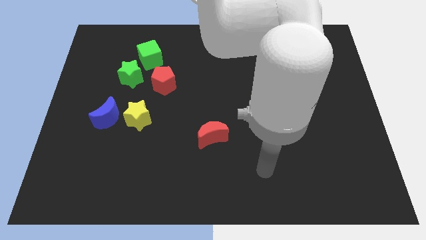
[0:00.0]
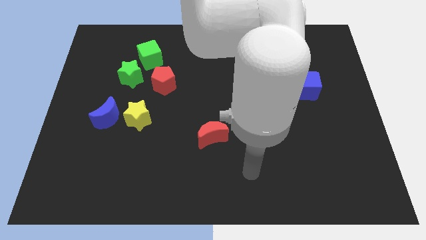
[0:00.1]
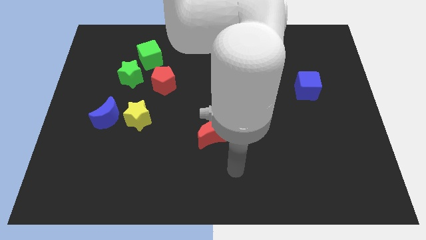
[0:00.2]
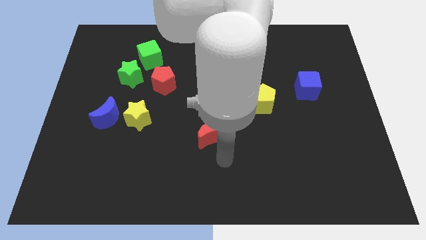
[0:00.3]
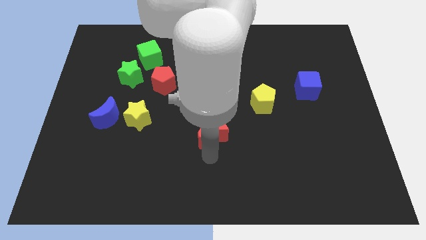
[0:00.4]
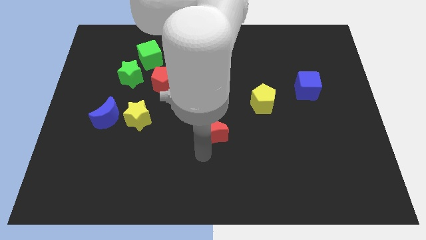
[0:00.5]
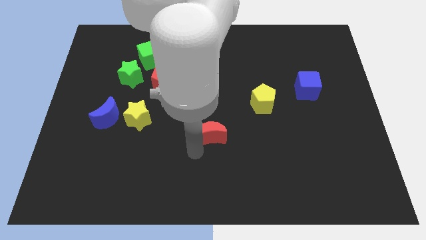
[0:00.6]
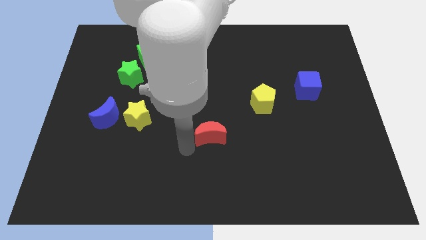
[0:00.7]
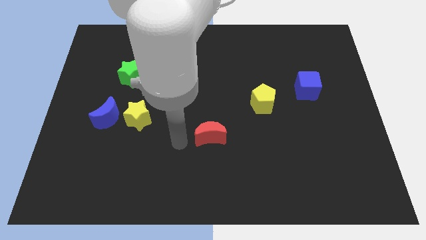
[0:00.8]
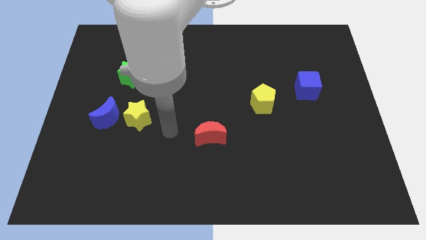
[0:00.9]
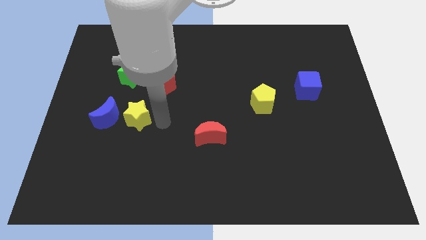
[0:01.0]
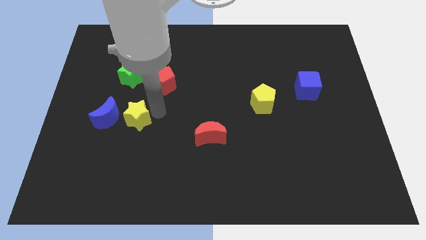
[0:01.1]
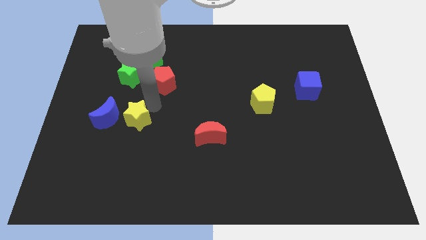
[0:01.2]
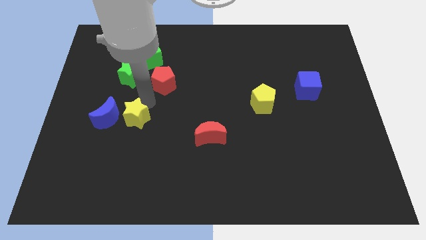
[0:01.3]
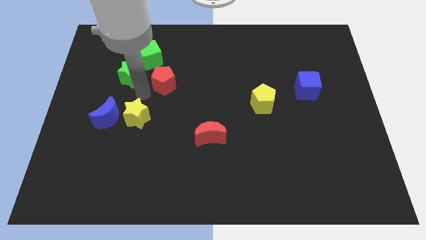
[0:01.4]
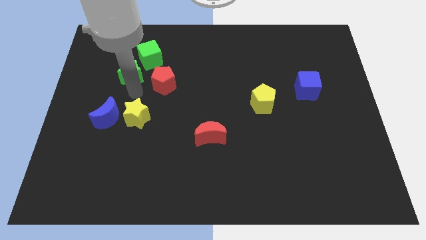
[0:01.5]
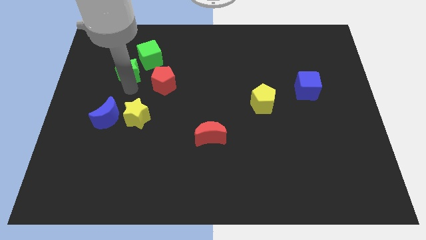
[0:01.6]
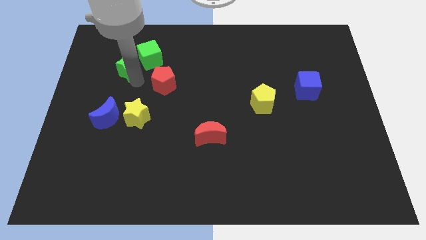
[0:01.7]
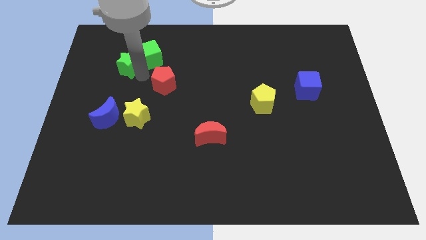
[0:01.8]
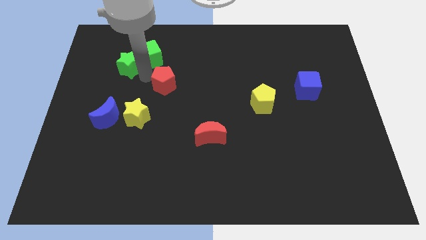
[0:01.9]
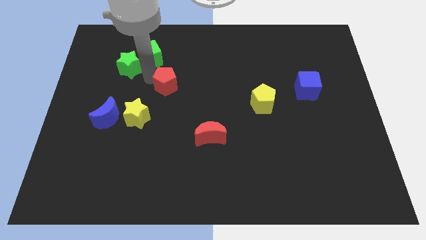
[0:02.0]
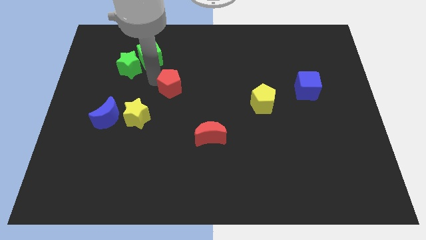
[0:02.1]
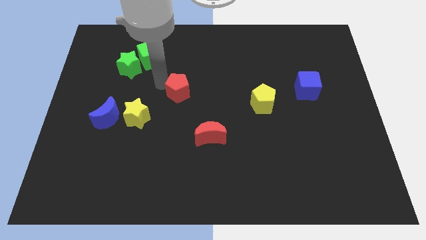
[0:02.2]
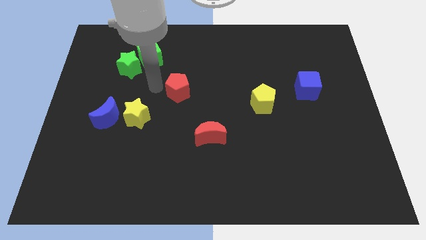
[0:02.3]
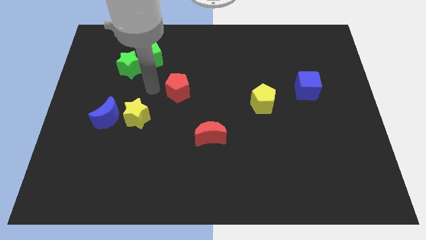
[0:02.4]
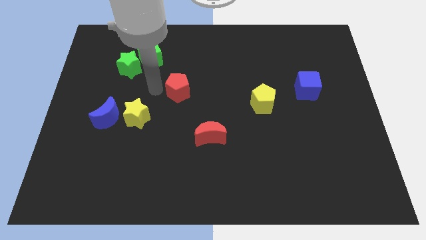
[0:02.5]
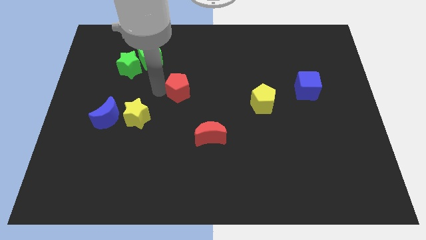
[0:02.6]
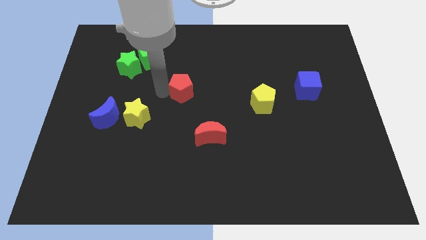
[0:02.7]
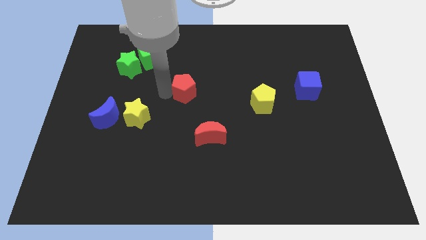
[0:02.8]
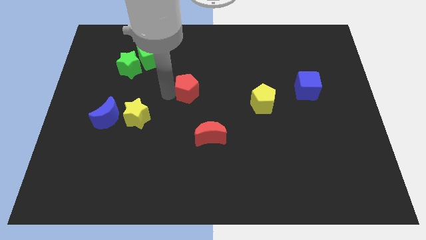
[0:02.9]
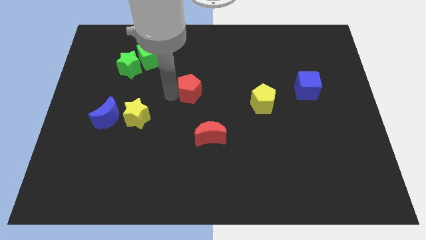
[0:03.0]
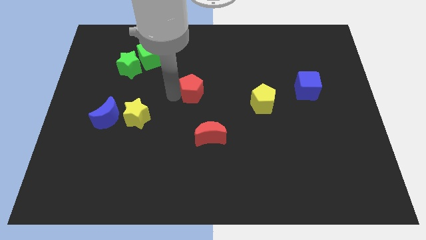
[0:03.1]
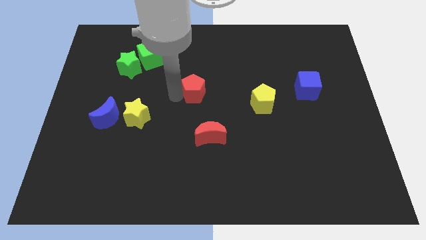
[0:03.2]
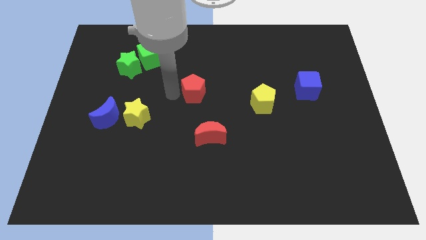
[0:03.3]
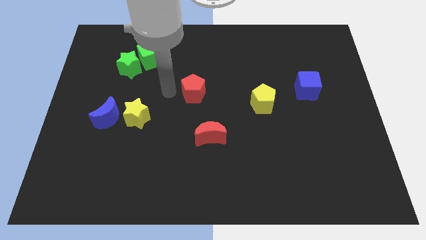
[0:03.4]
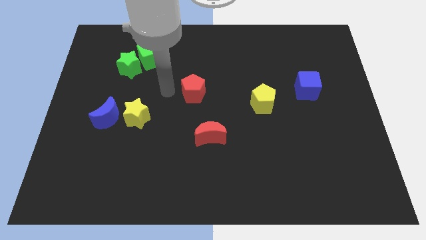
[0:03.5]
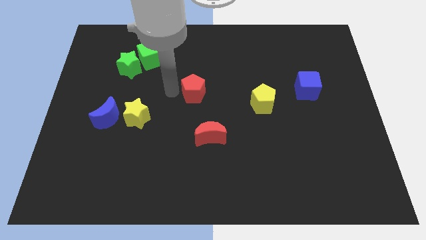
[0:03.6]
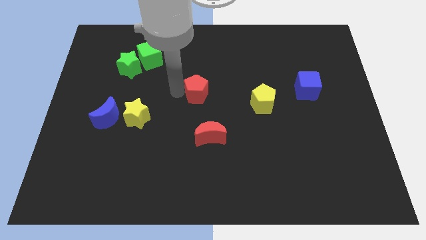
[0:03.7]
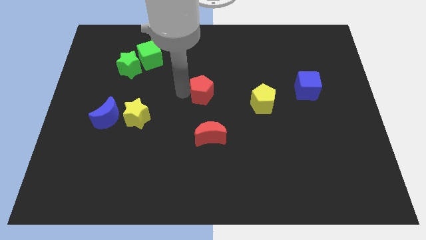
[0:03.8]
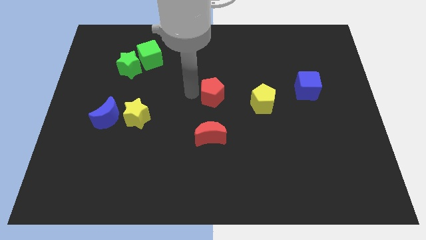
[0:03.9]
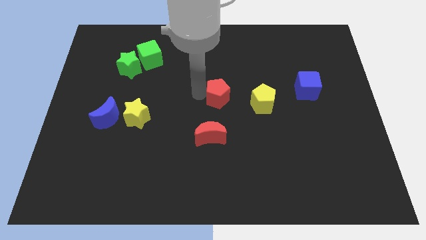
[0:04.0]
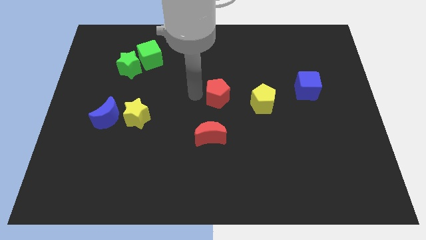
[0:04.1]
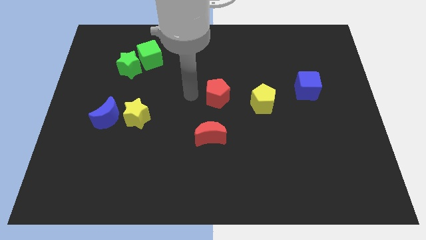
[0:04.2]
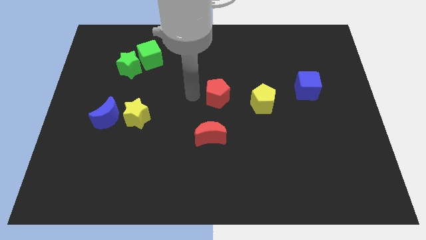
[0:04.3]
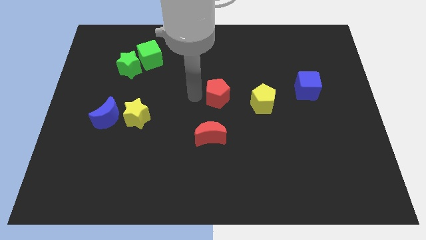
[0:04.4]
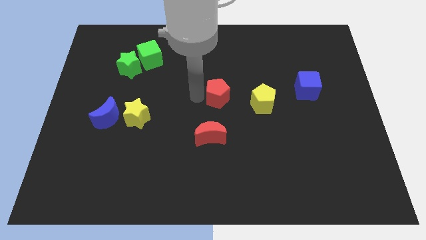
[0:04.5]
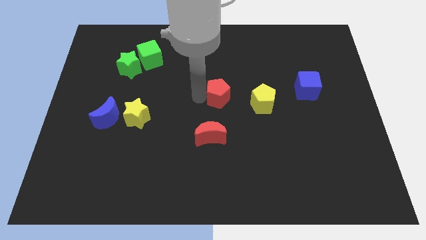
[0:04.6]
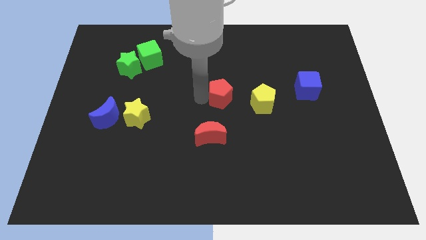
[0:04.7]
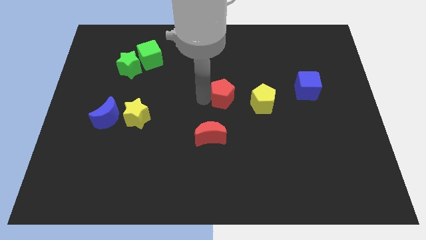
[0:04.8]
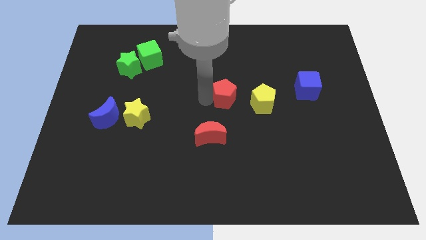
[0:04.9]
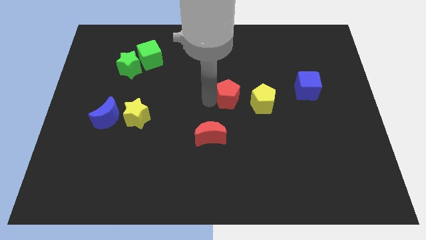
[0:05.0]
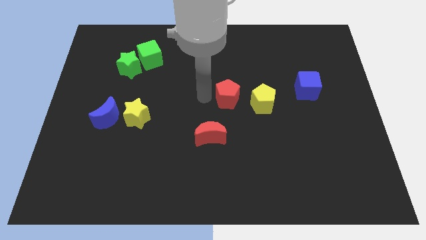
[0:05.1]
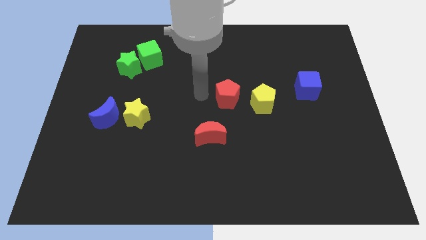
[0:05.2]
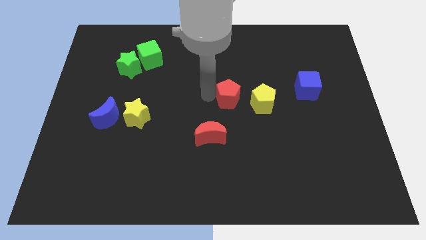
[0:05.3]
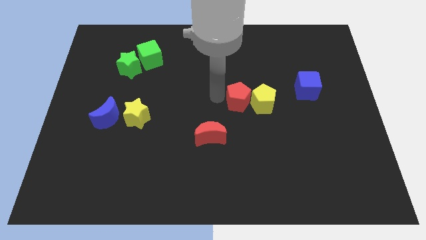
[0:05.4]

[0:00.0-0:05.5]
slide the red pentagon to the yellow pentagon

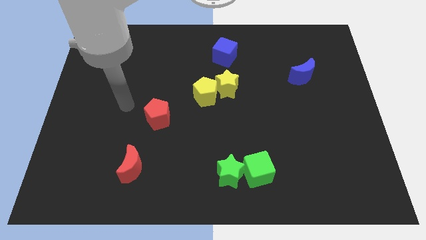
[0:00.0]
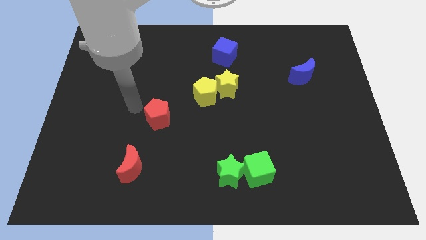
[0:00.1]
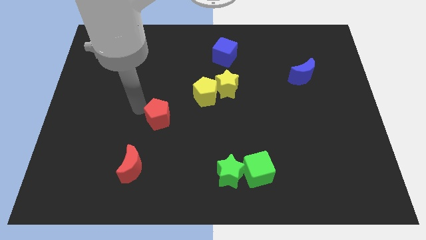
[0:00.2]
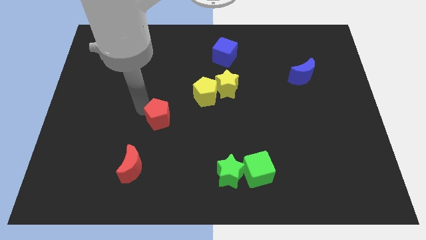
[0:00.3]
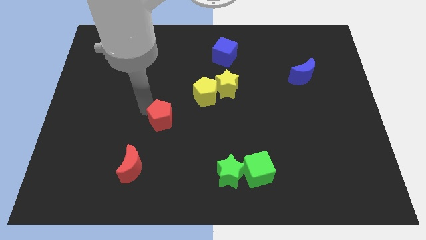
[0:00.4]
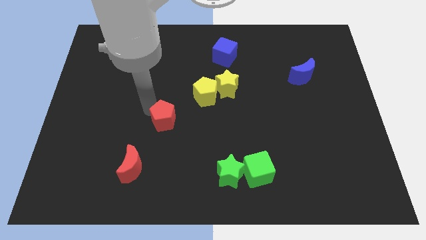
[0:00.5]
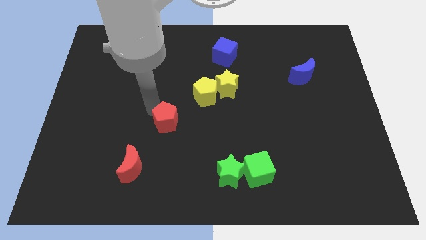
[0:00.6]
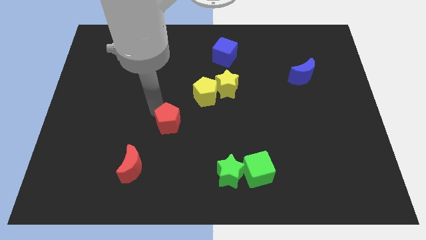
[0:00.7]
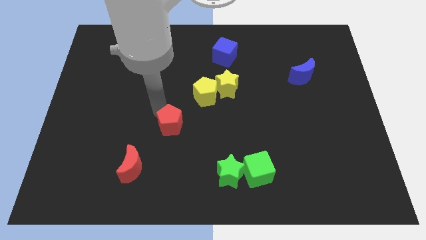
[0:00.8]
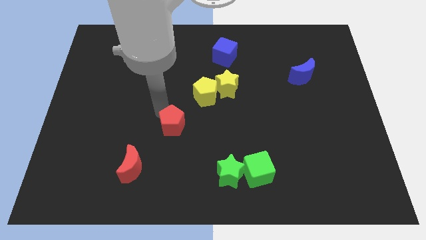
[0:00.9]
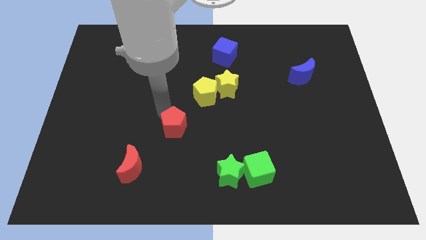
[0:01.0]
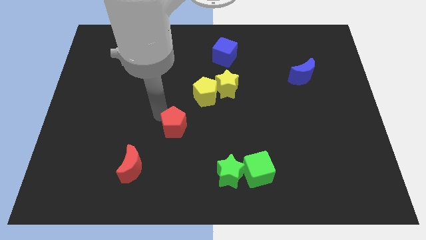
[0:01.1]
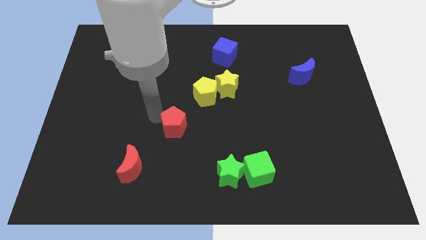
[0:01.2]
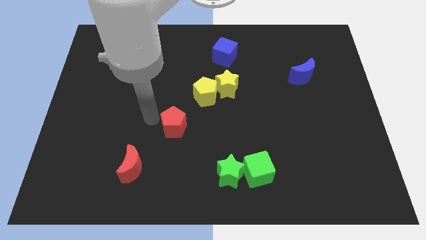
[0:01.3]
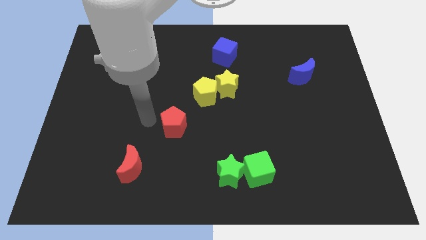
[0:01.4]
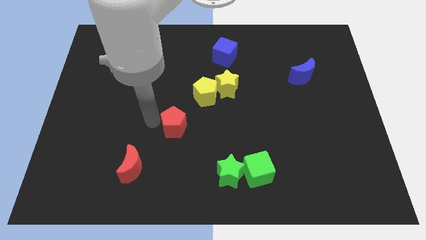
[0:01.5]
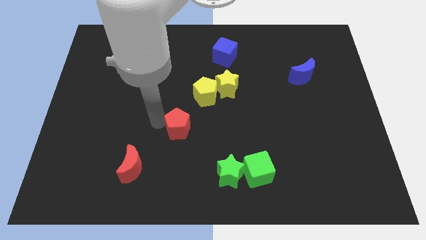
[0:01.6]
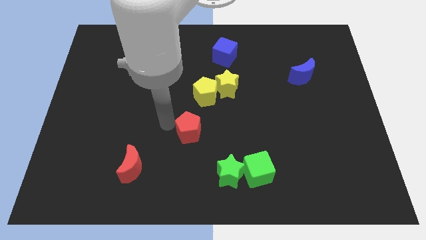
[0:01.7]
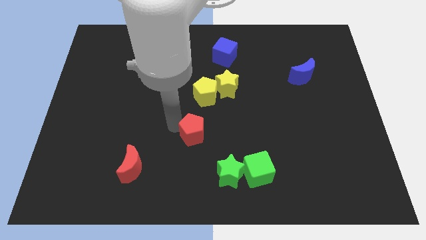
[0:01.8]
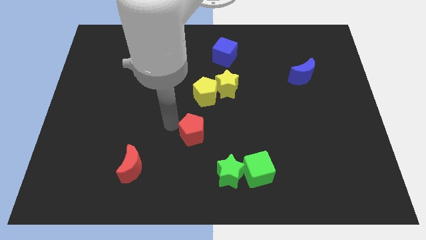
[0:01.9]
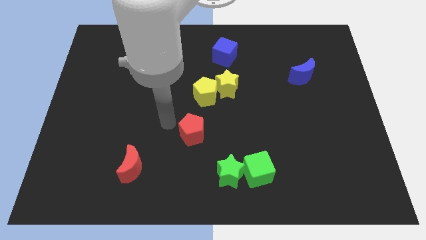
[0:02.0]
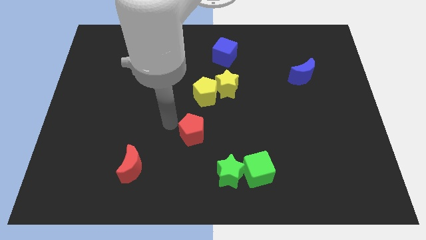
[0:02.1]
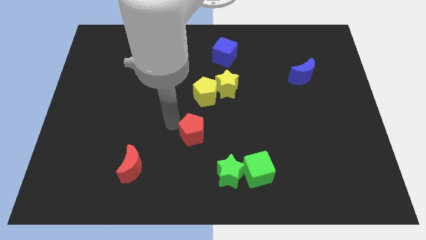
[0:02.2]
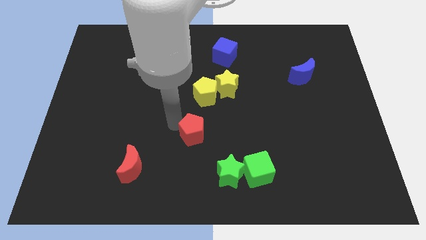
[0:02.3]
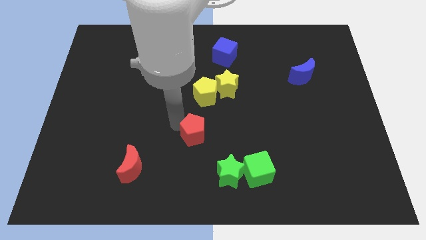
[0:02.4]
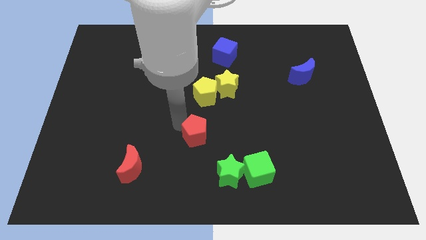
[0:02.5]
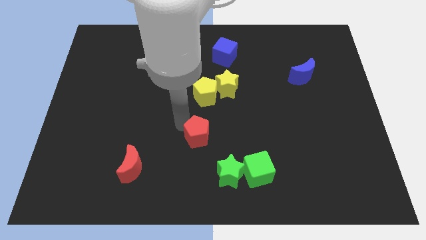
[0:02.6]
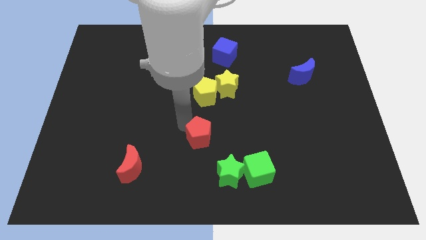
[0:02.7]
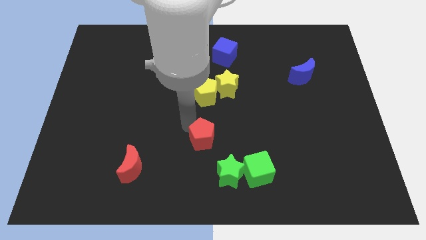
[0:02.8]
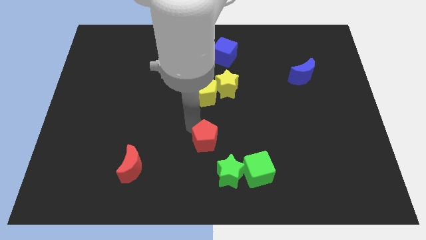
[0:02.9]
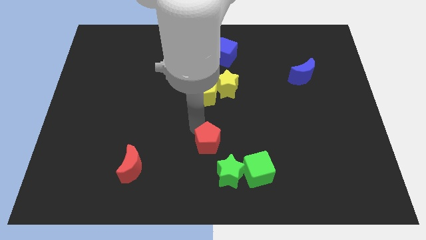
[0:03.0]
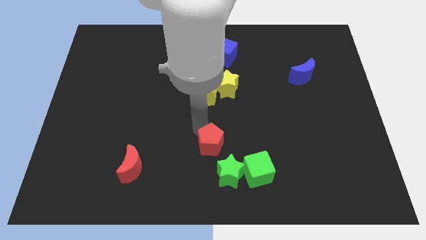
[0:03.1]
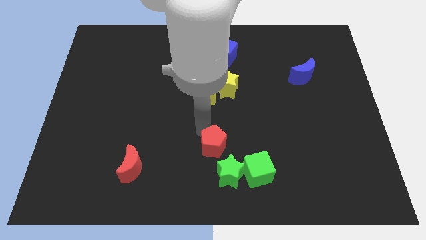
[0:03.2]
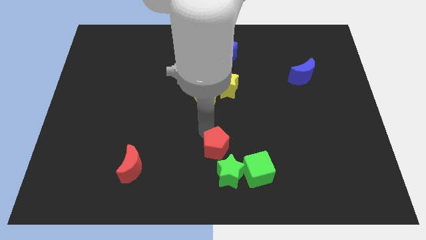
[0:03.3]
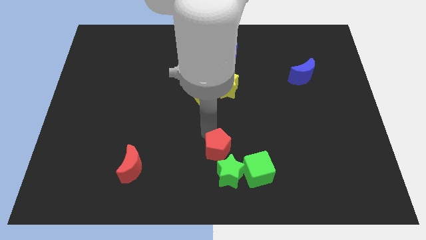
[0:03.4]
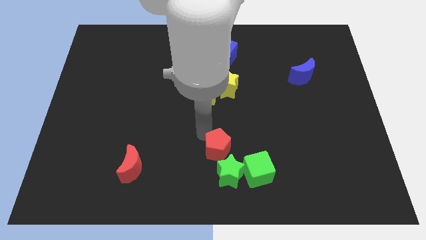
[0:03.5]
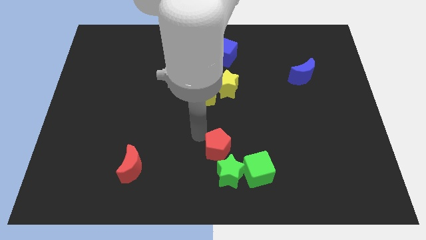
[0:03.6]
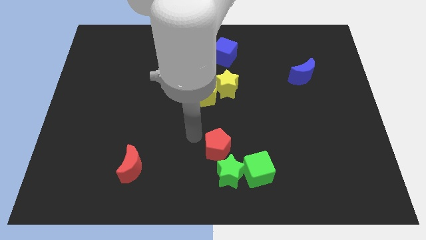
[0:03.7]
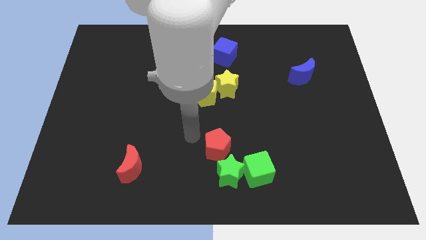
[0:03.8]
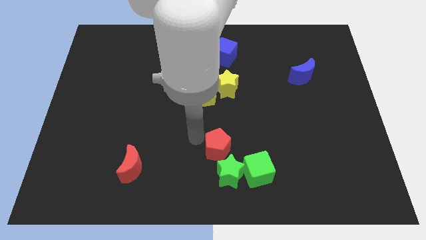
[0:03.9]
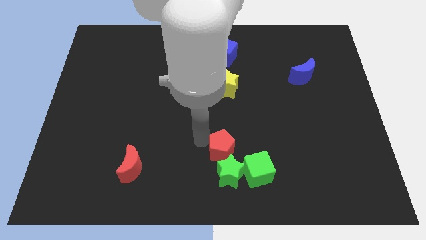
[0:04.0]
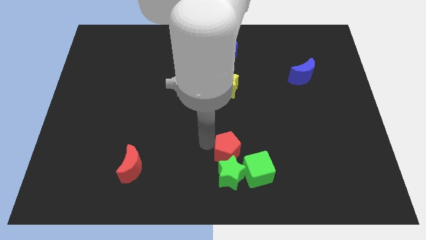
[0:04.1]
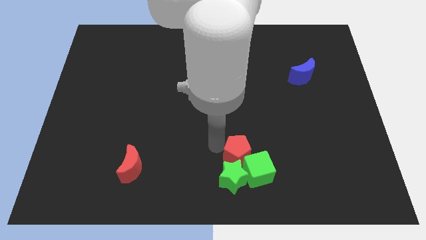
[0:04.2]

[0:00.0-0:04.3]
move the red pentagon next to the green cube
